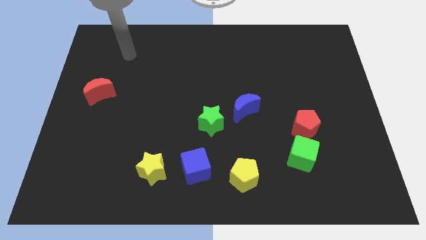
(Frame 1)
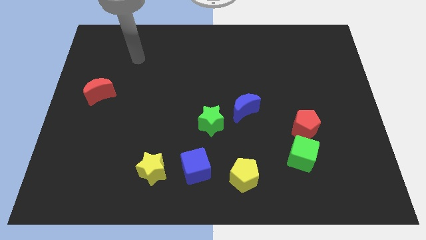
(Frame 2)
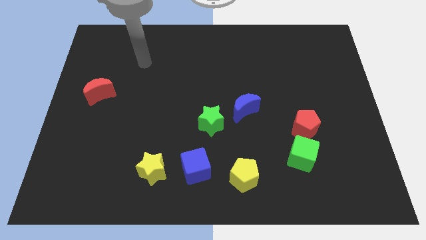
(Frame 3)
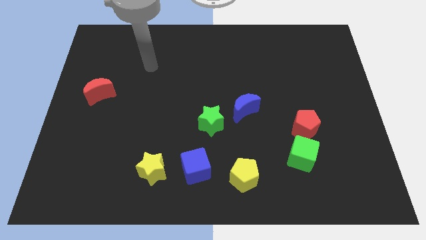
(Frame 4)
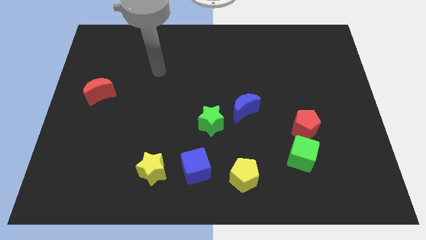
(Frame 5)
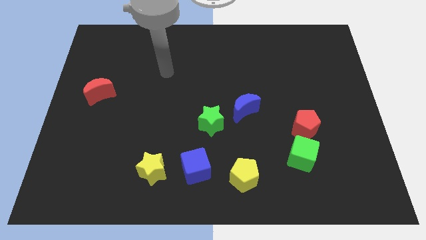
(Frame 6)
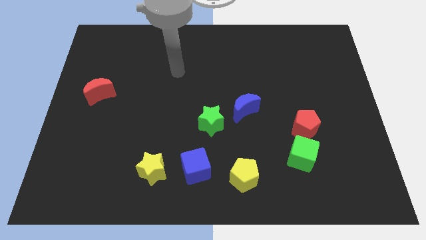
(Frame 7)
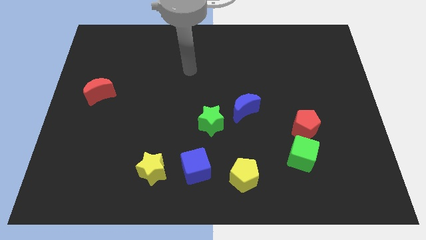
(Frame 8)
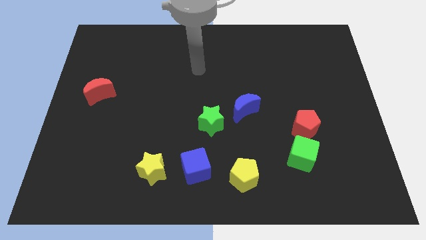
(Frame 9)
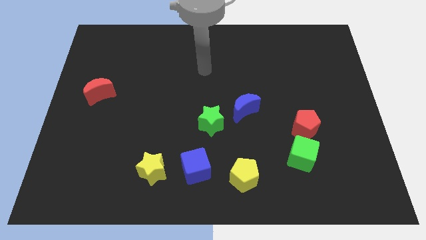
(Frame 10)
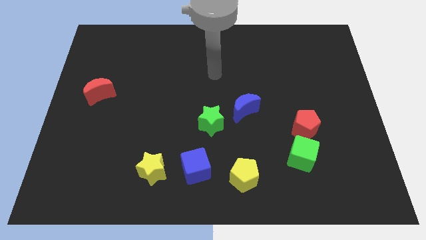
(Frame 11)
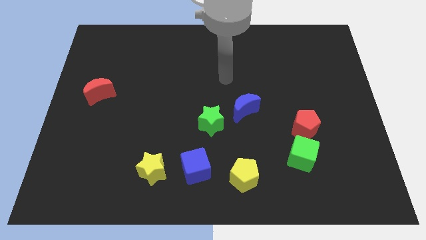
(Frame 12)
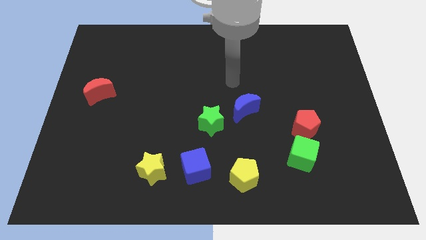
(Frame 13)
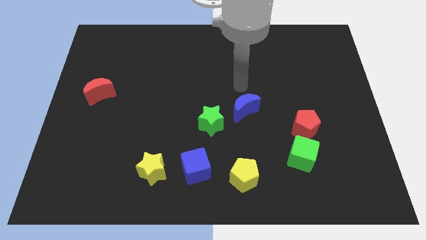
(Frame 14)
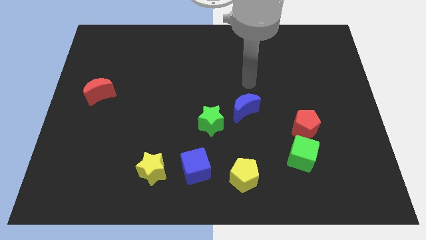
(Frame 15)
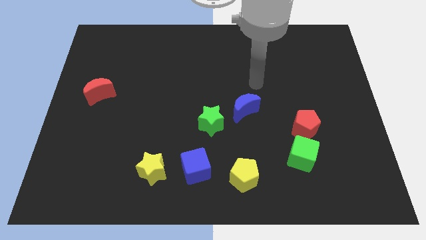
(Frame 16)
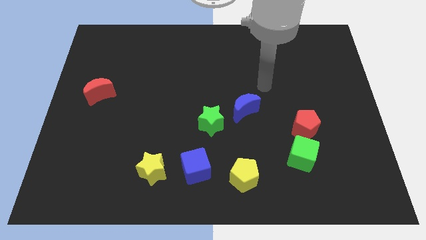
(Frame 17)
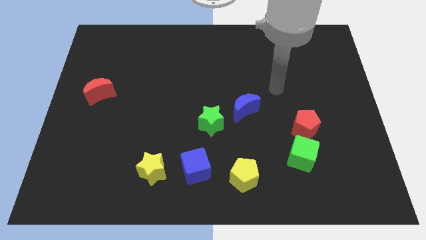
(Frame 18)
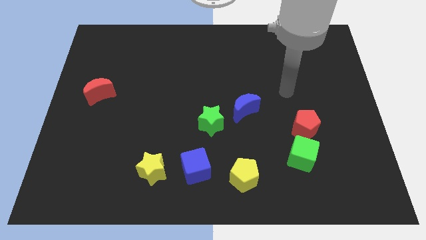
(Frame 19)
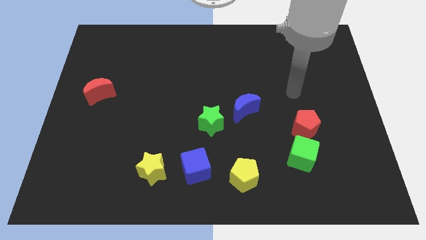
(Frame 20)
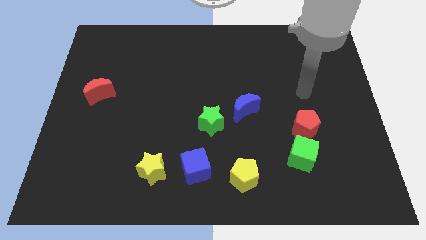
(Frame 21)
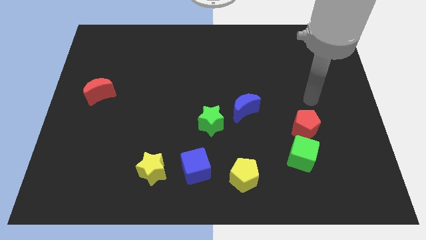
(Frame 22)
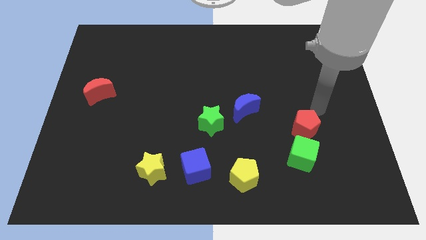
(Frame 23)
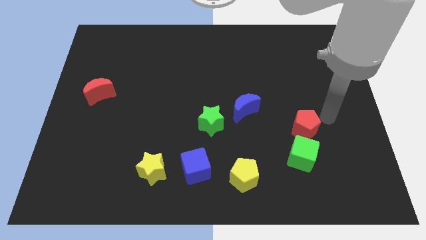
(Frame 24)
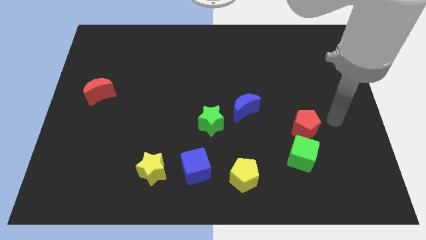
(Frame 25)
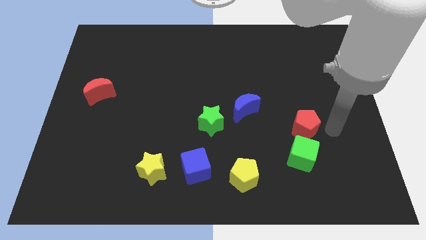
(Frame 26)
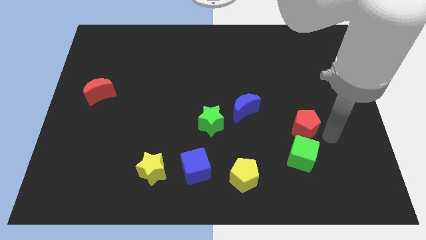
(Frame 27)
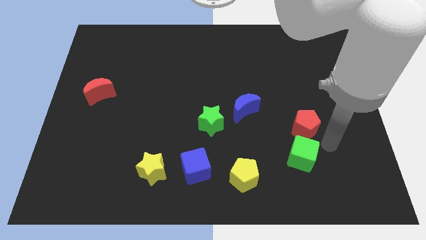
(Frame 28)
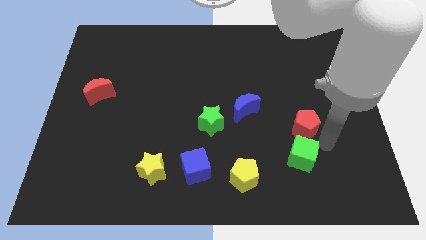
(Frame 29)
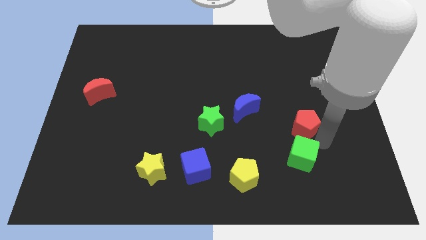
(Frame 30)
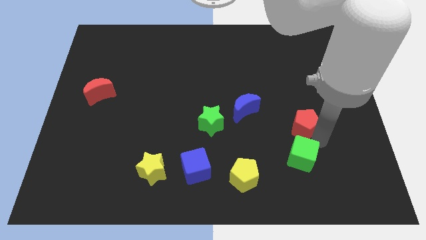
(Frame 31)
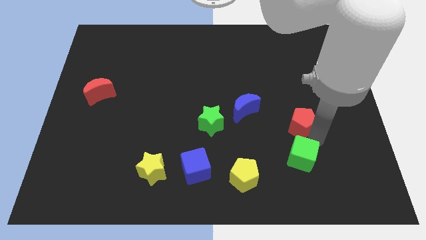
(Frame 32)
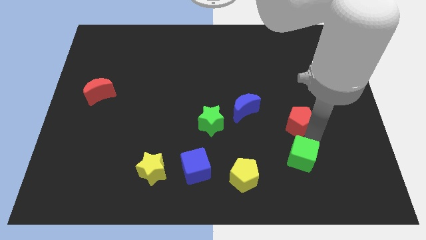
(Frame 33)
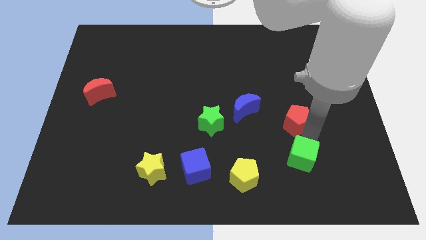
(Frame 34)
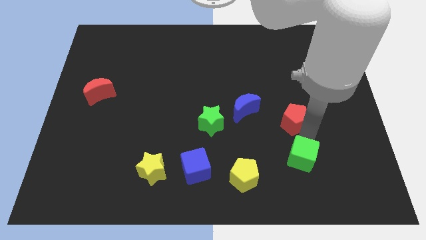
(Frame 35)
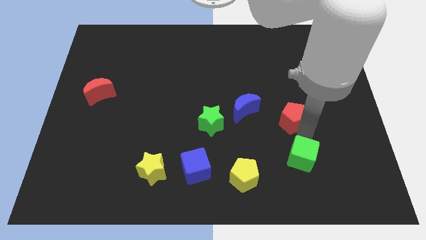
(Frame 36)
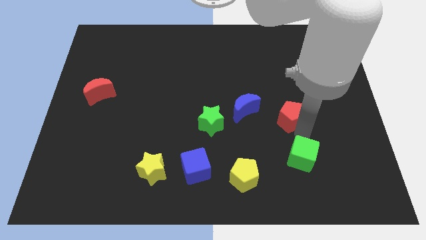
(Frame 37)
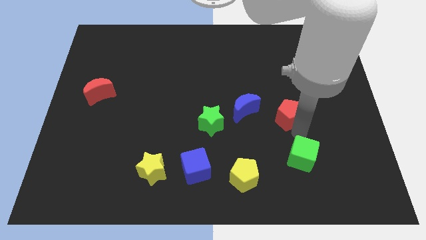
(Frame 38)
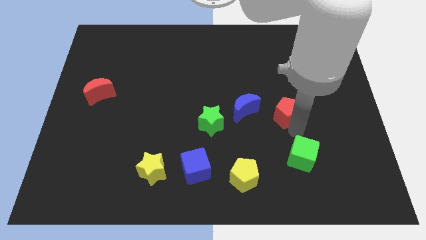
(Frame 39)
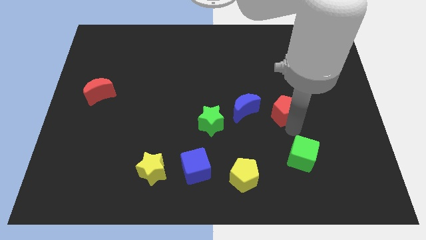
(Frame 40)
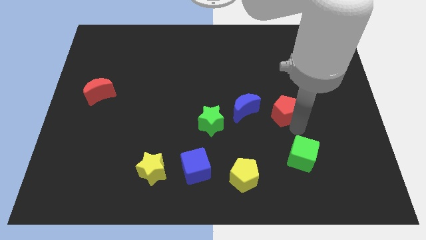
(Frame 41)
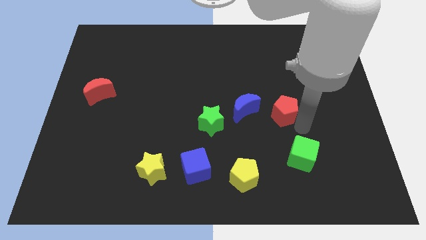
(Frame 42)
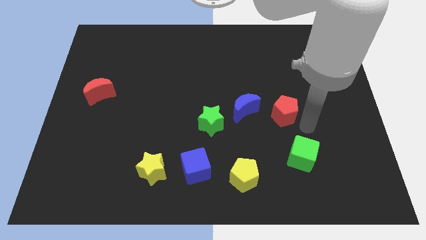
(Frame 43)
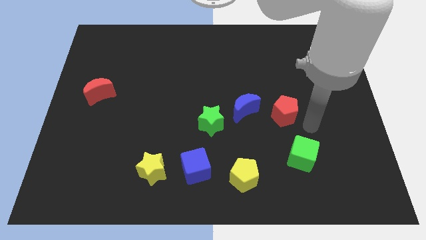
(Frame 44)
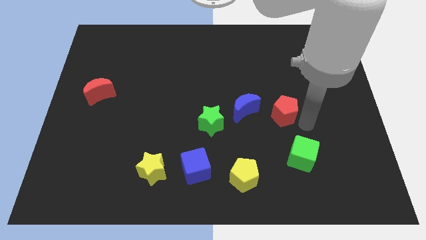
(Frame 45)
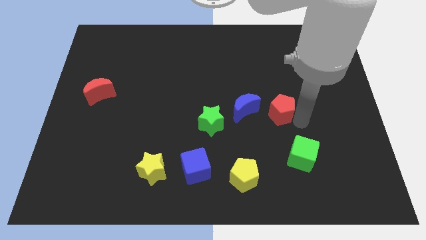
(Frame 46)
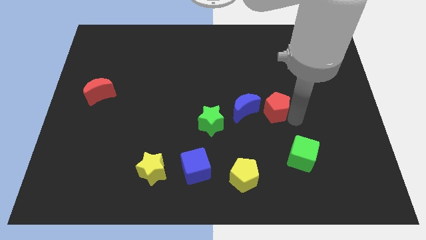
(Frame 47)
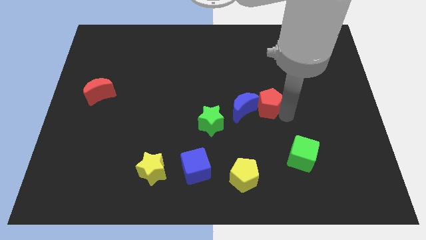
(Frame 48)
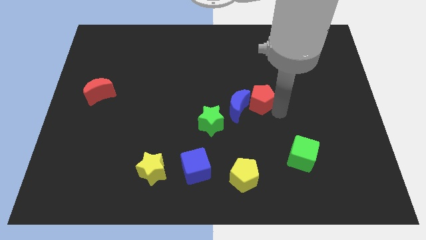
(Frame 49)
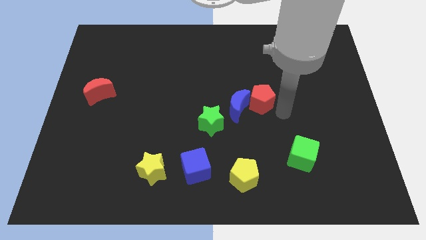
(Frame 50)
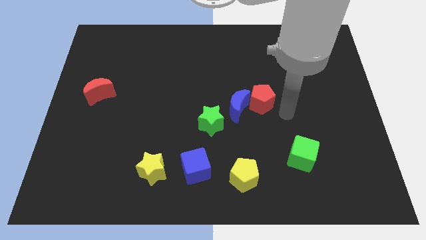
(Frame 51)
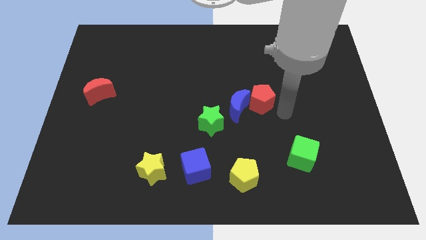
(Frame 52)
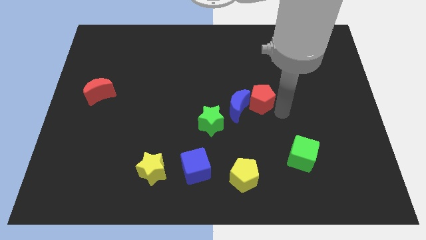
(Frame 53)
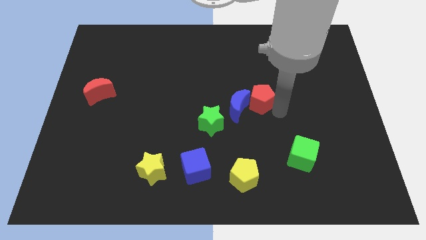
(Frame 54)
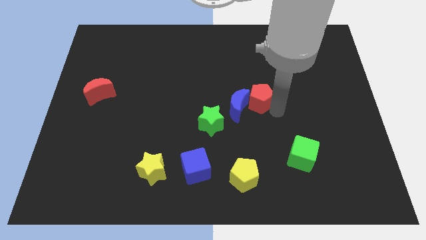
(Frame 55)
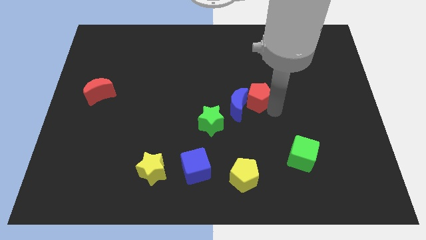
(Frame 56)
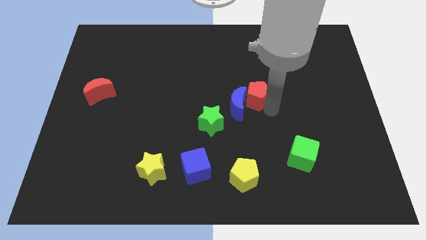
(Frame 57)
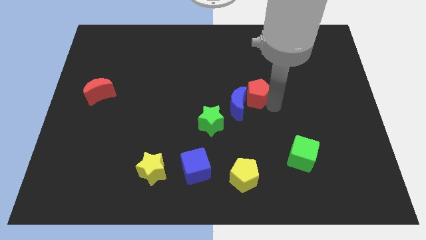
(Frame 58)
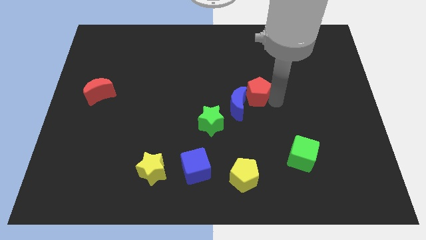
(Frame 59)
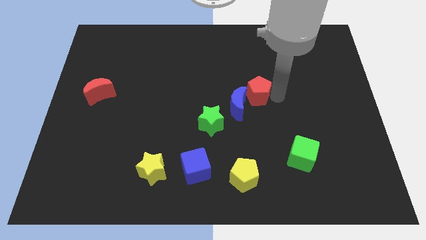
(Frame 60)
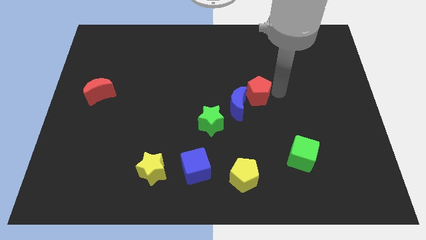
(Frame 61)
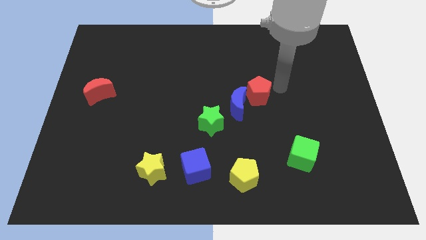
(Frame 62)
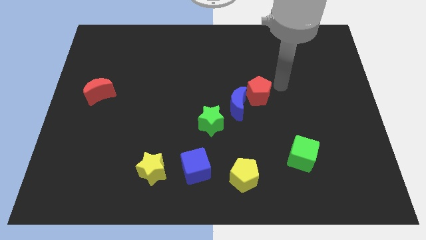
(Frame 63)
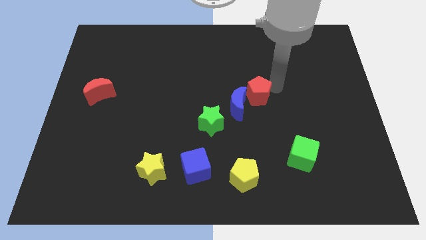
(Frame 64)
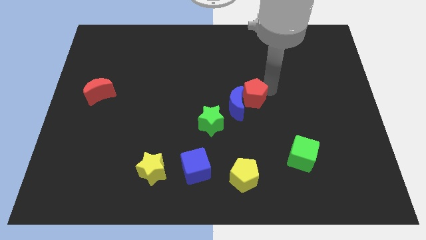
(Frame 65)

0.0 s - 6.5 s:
put the red pentagon diagonally up and to the right of the green star
